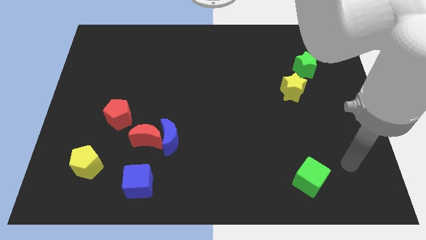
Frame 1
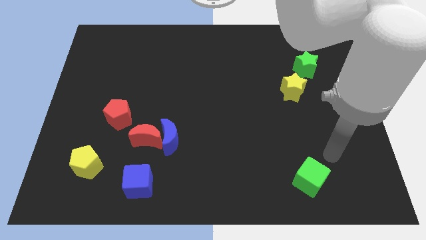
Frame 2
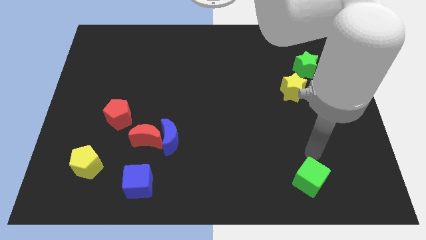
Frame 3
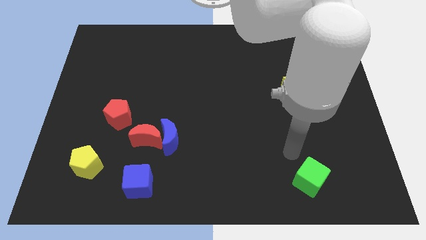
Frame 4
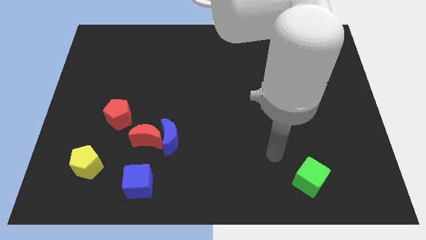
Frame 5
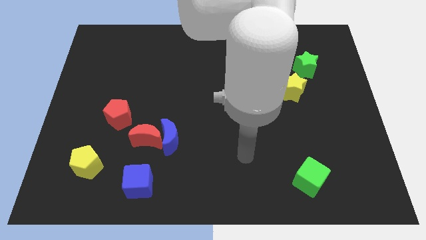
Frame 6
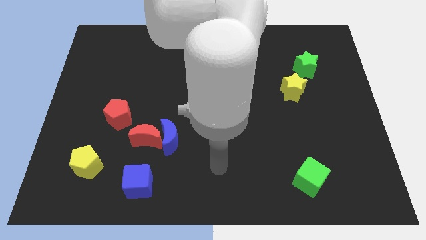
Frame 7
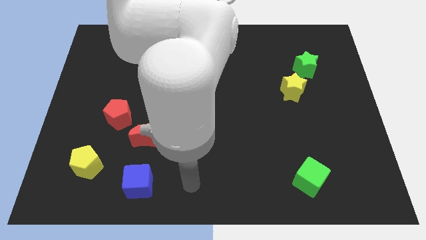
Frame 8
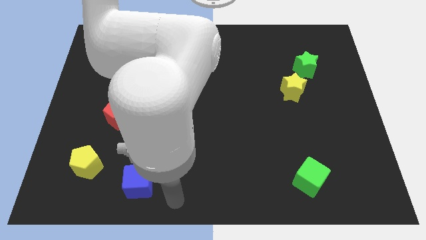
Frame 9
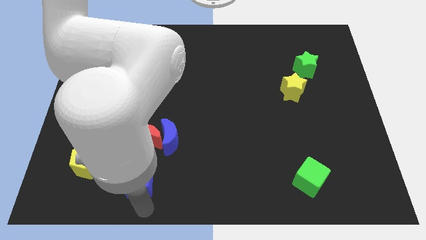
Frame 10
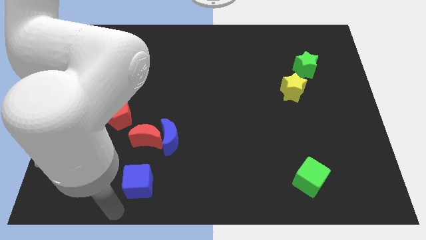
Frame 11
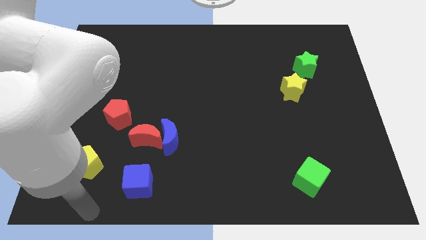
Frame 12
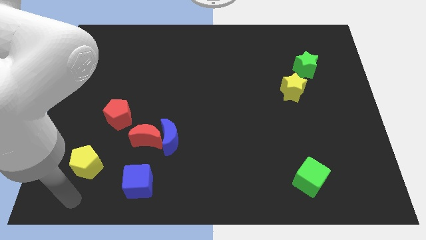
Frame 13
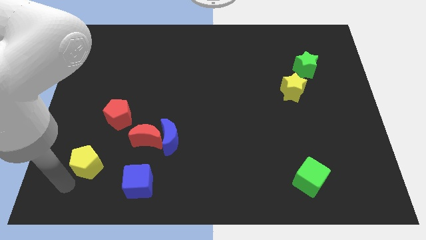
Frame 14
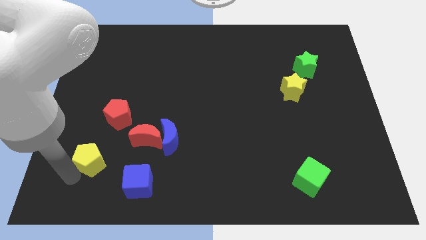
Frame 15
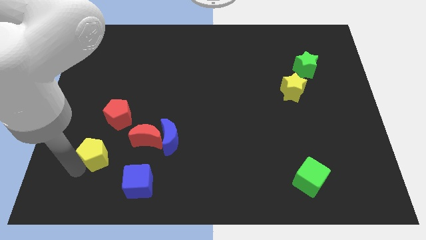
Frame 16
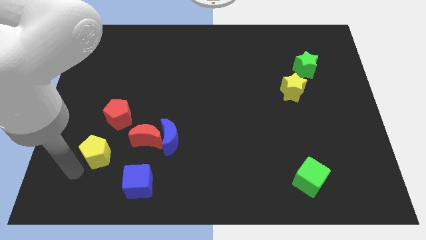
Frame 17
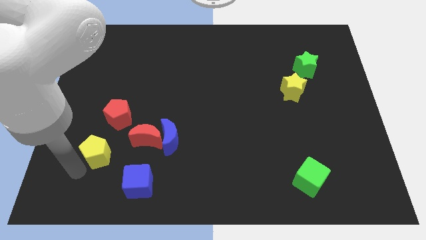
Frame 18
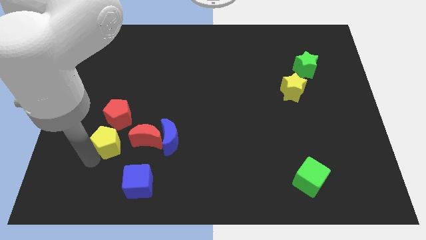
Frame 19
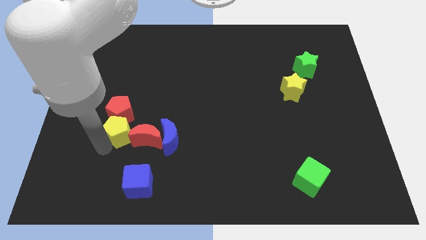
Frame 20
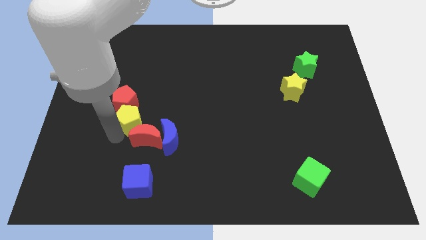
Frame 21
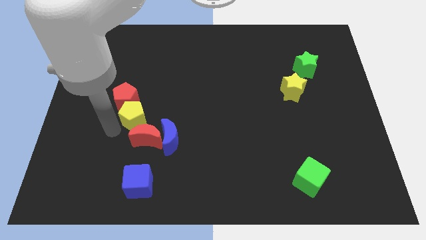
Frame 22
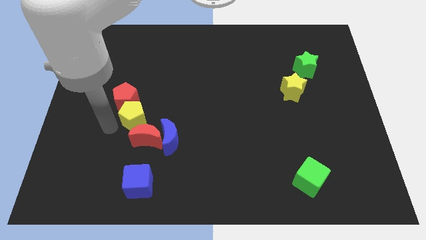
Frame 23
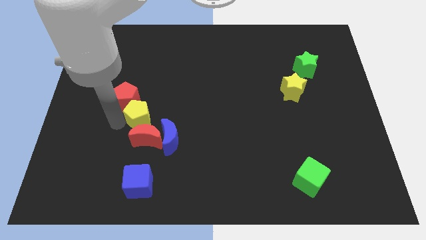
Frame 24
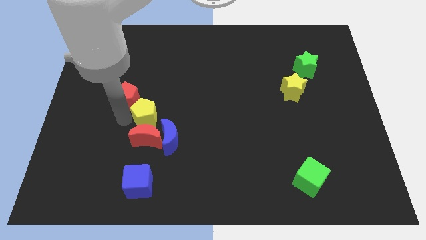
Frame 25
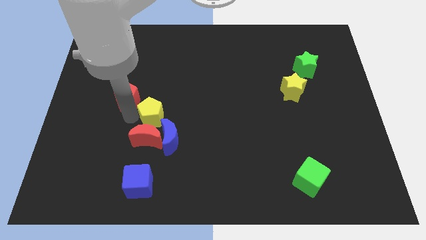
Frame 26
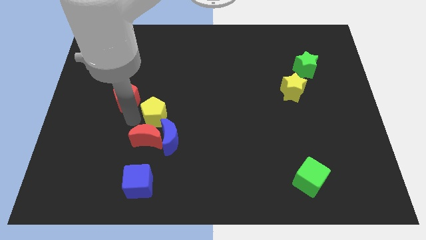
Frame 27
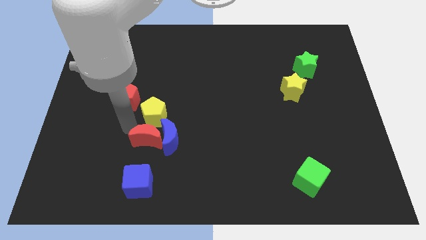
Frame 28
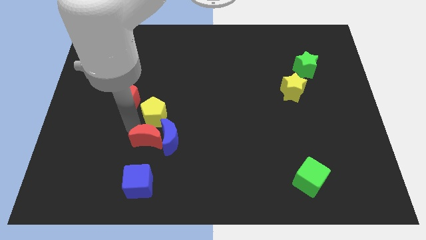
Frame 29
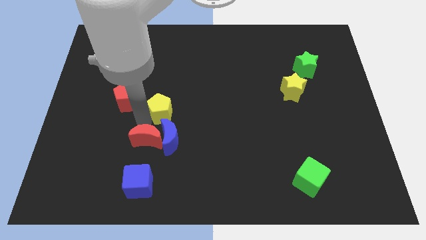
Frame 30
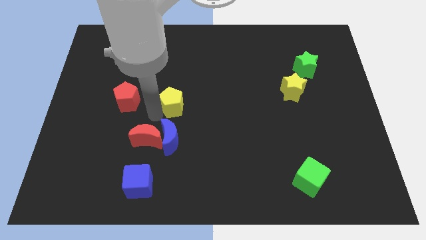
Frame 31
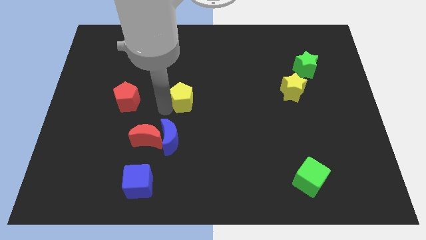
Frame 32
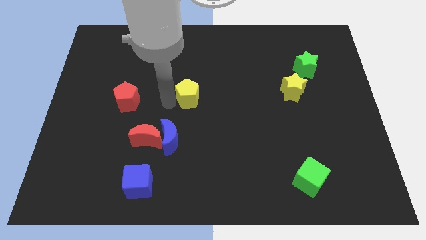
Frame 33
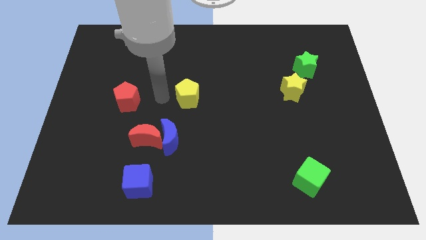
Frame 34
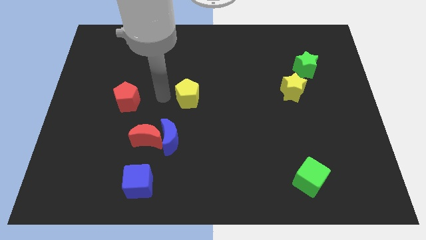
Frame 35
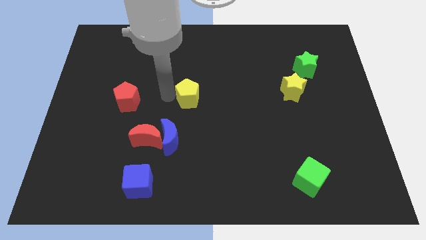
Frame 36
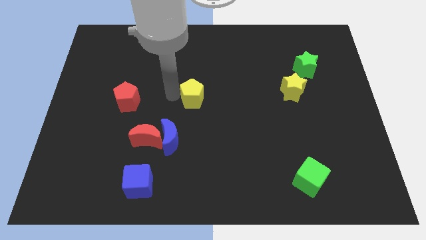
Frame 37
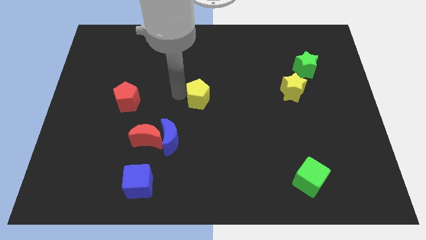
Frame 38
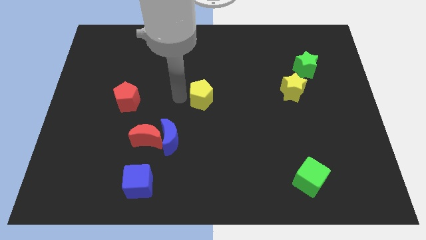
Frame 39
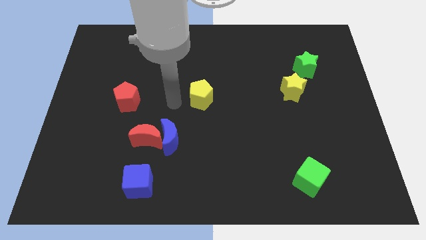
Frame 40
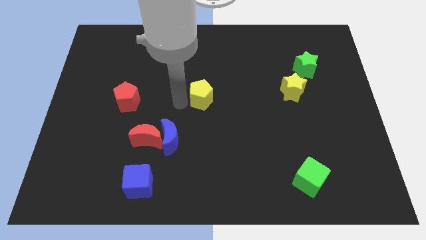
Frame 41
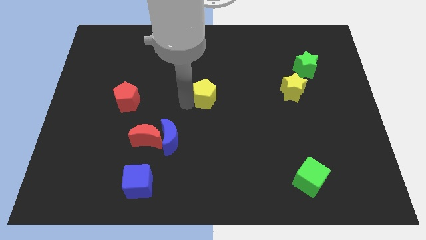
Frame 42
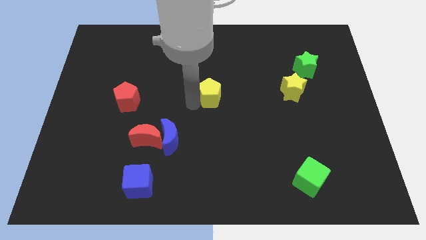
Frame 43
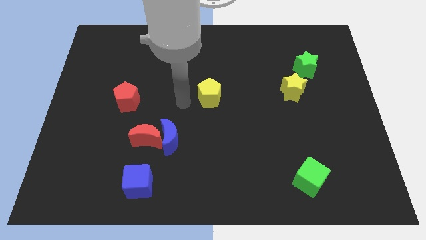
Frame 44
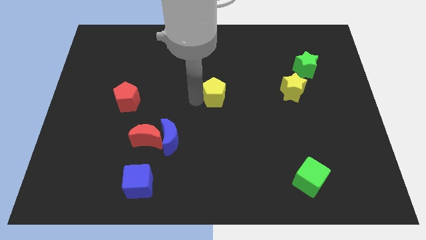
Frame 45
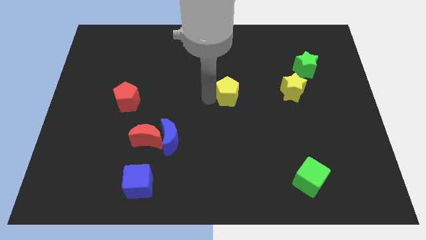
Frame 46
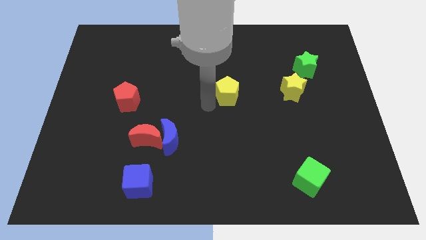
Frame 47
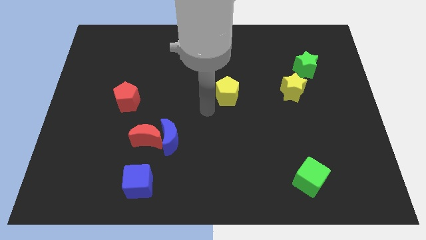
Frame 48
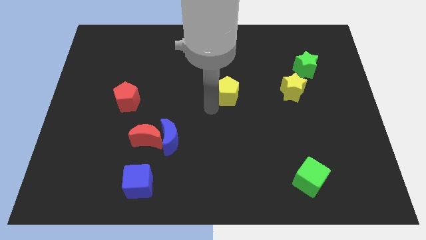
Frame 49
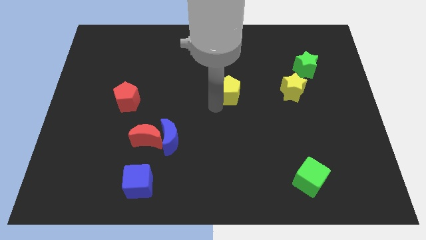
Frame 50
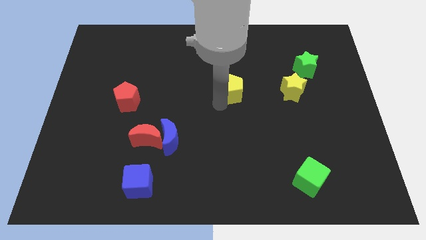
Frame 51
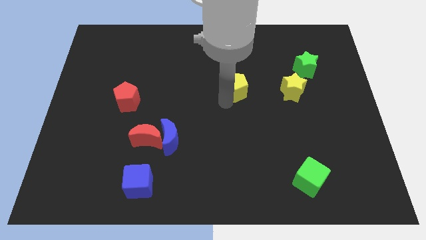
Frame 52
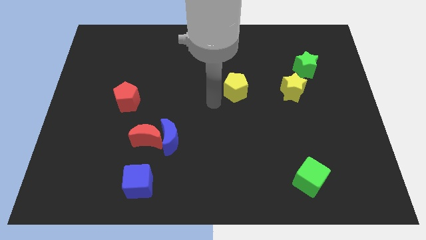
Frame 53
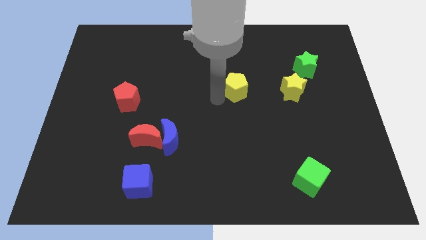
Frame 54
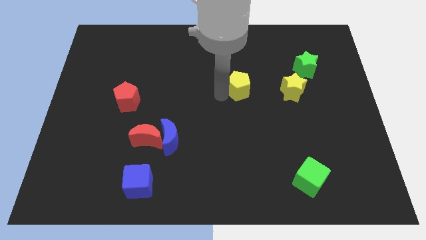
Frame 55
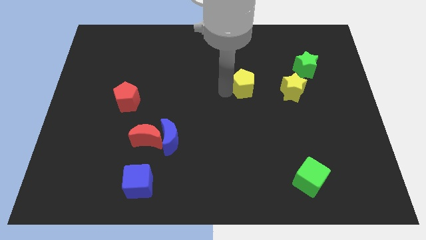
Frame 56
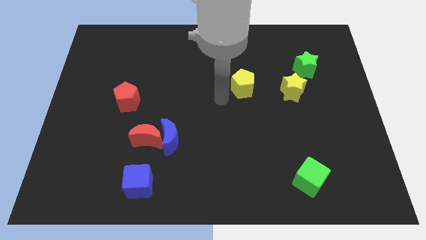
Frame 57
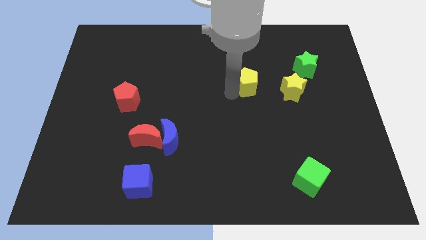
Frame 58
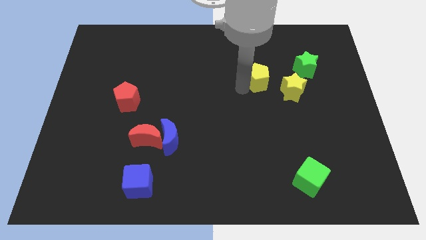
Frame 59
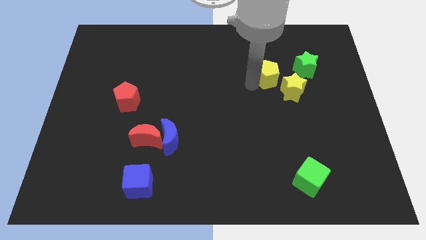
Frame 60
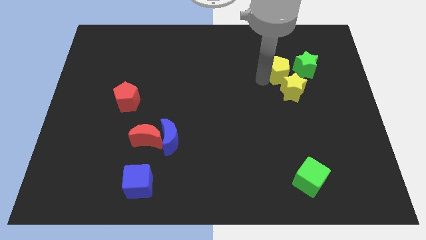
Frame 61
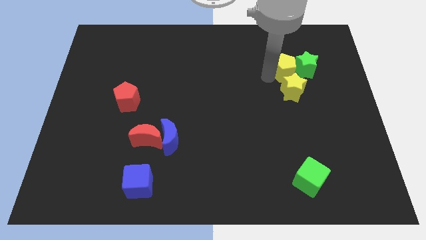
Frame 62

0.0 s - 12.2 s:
slide the yellow pentagon towards the green star

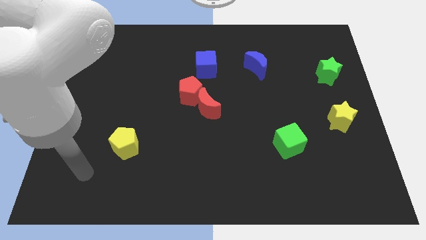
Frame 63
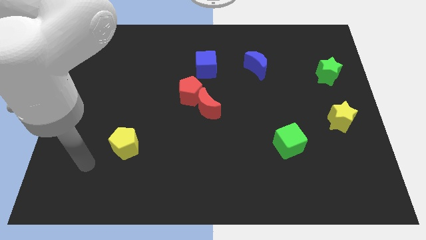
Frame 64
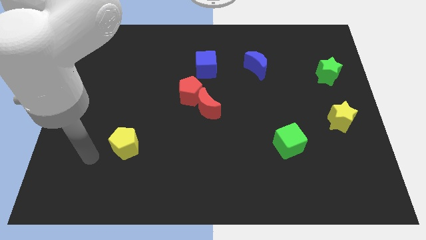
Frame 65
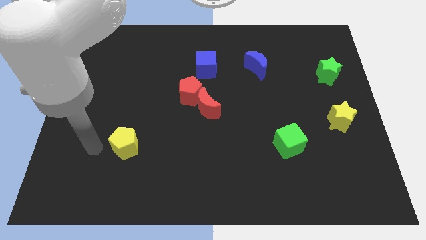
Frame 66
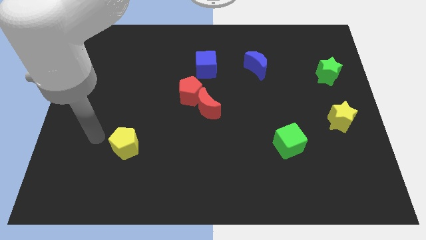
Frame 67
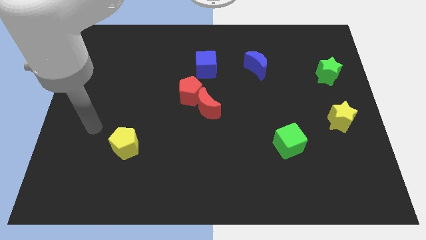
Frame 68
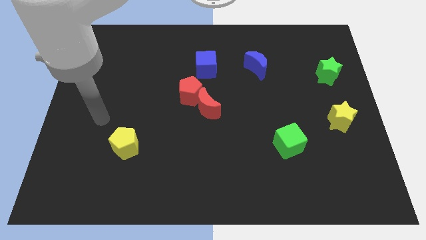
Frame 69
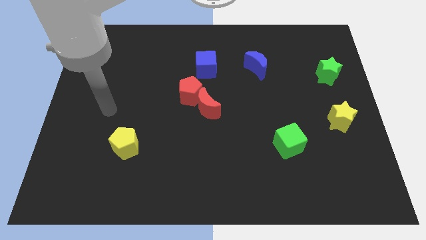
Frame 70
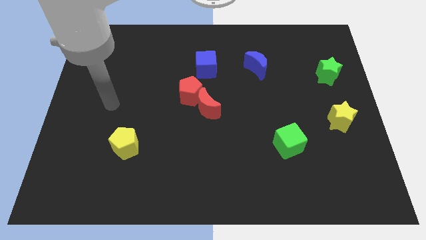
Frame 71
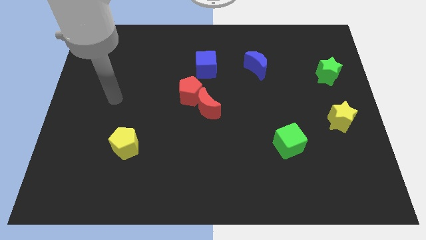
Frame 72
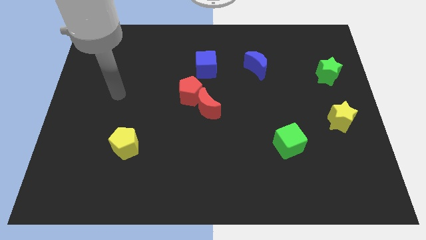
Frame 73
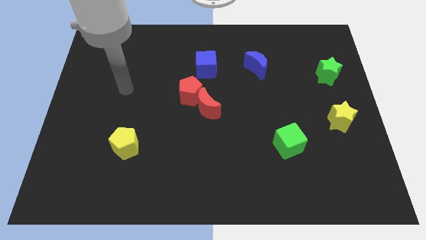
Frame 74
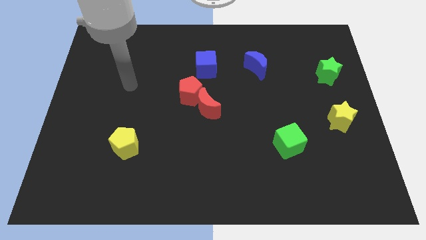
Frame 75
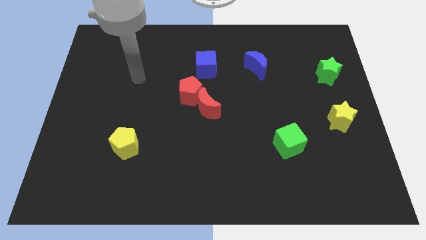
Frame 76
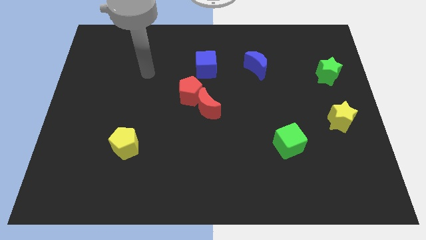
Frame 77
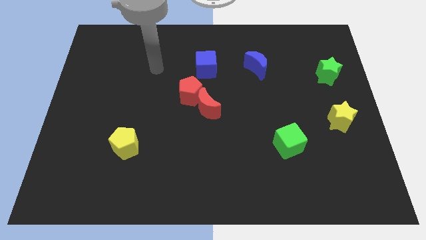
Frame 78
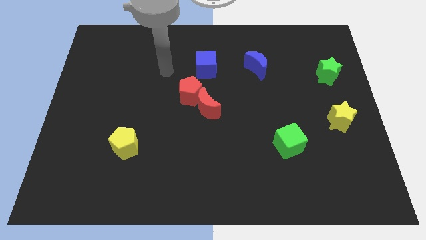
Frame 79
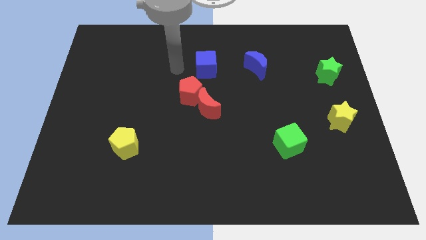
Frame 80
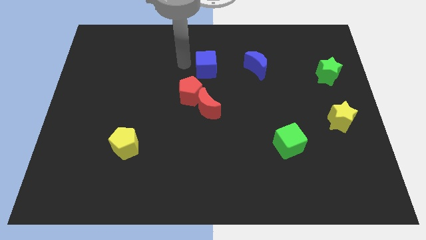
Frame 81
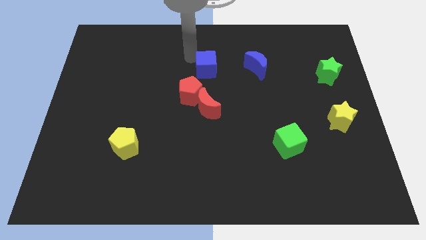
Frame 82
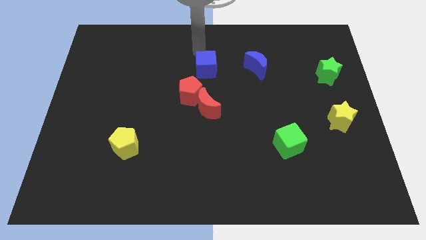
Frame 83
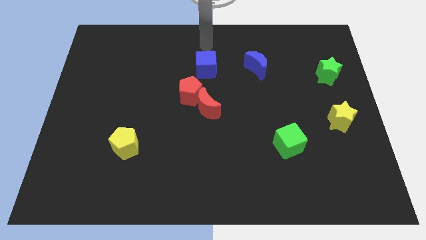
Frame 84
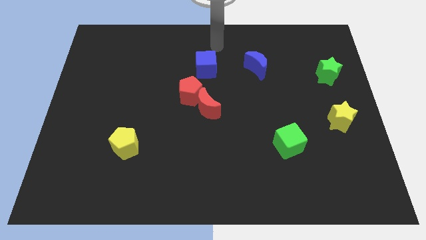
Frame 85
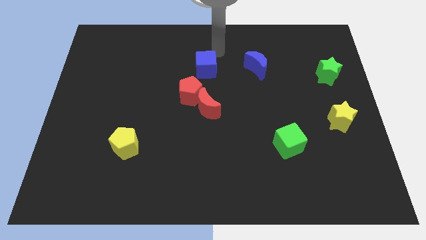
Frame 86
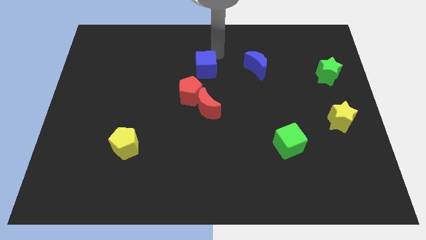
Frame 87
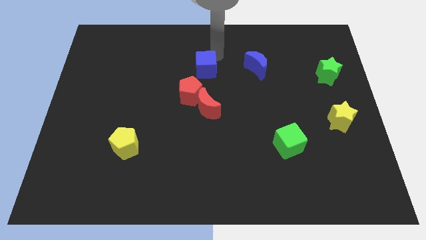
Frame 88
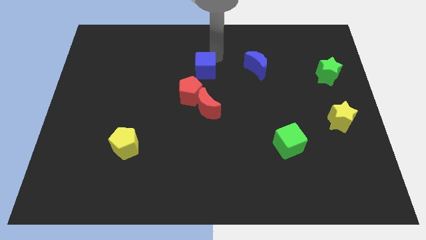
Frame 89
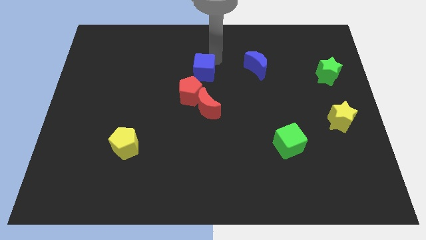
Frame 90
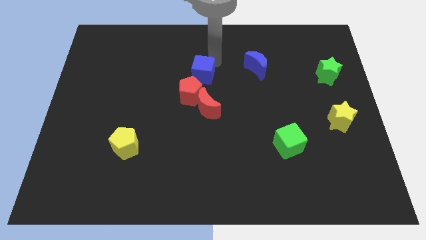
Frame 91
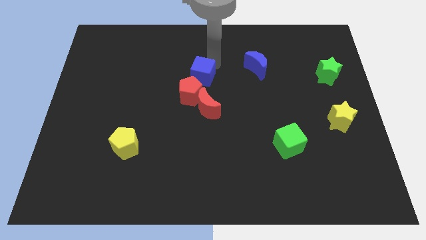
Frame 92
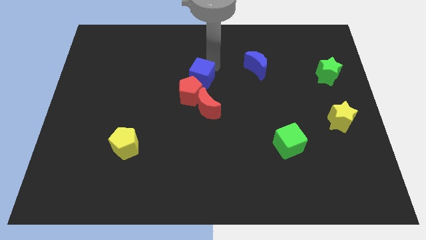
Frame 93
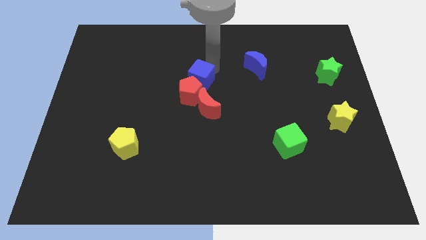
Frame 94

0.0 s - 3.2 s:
put the blue cube to the red pentagon
